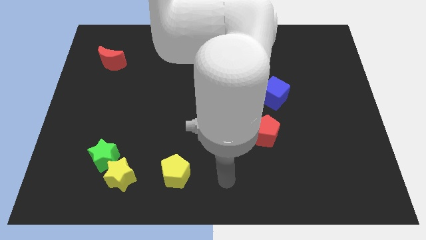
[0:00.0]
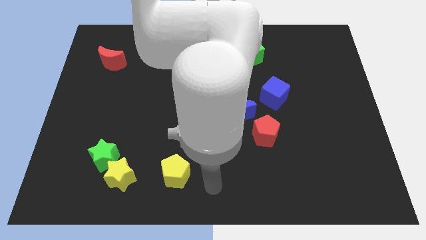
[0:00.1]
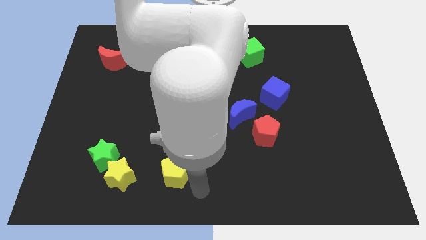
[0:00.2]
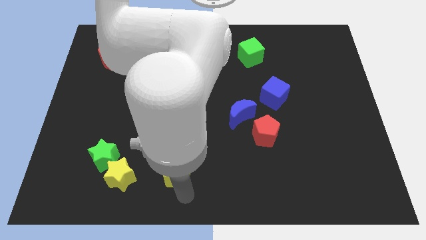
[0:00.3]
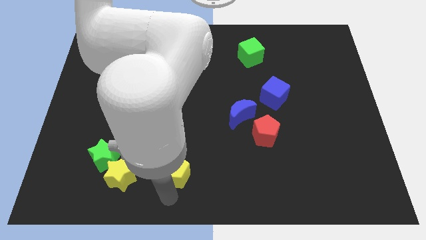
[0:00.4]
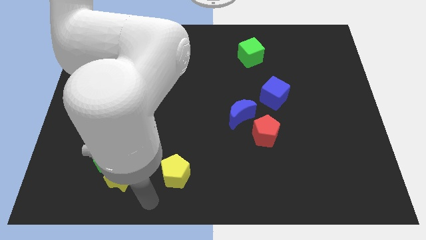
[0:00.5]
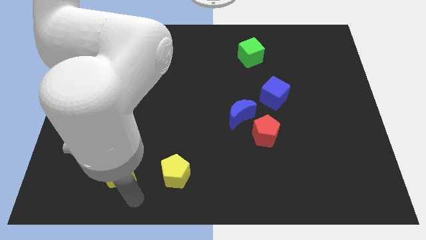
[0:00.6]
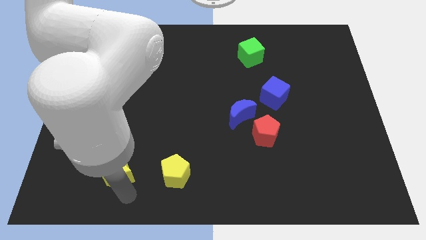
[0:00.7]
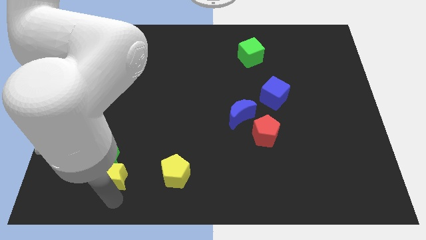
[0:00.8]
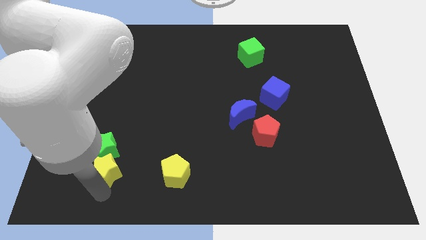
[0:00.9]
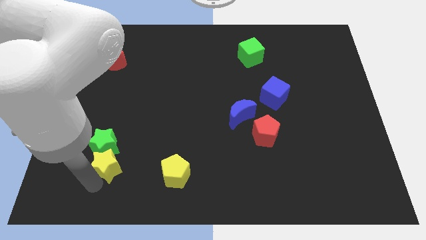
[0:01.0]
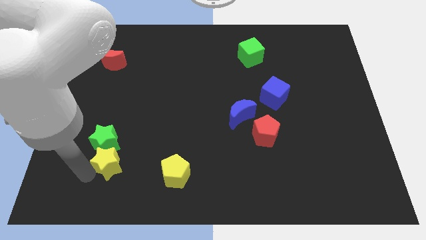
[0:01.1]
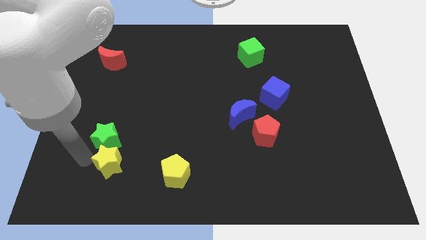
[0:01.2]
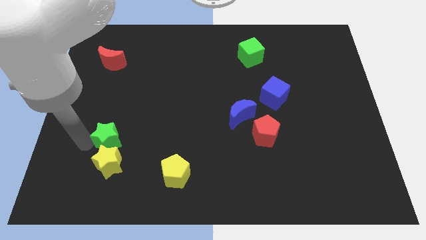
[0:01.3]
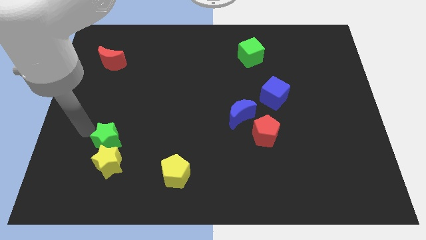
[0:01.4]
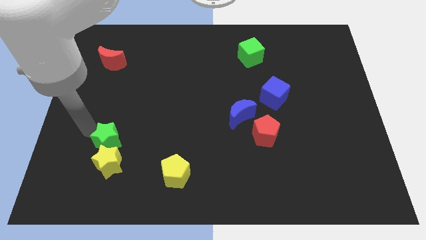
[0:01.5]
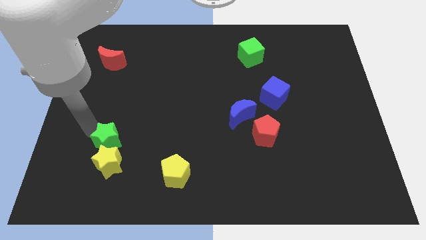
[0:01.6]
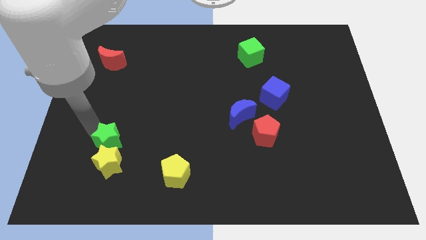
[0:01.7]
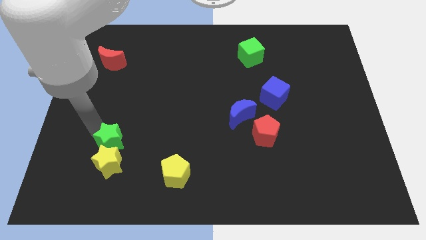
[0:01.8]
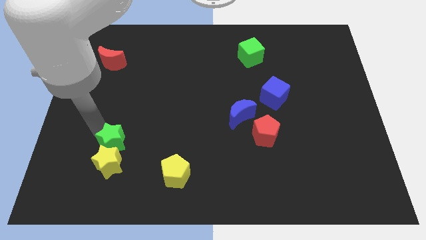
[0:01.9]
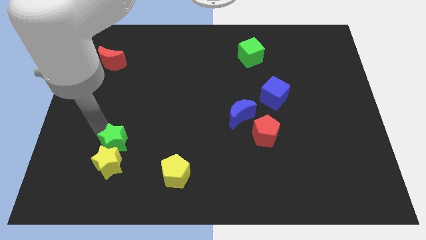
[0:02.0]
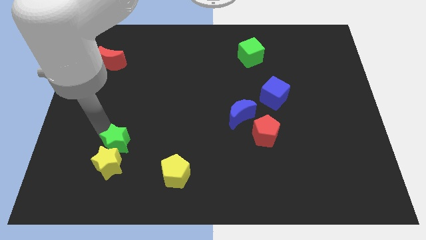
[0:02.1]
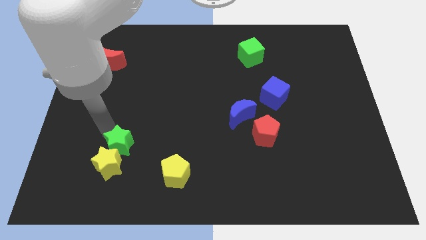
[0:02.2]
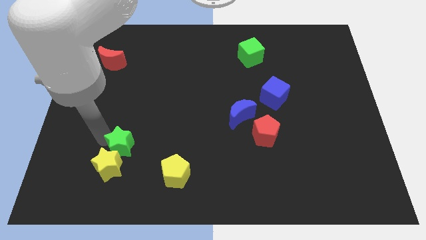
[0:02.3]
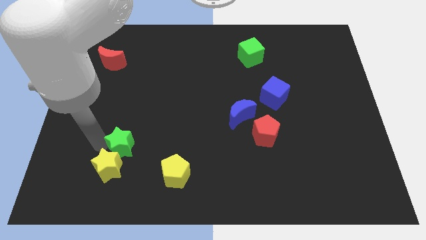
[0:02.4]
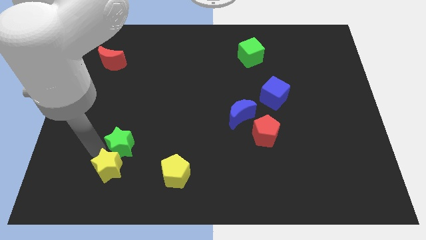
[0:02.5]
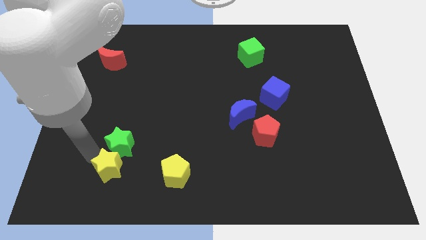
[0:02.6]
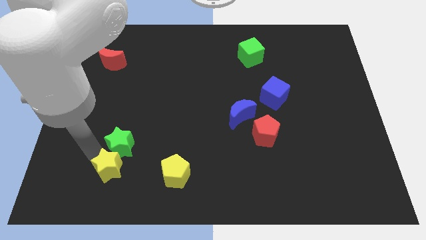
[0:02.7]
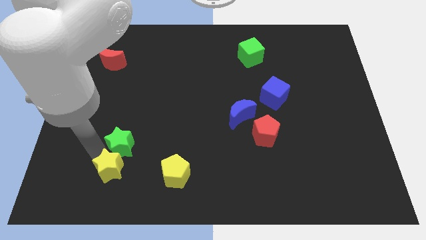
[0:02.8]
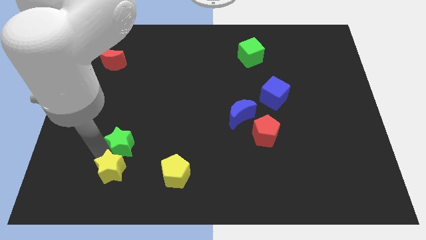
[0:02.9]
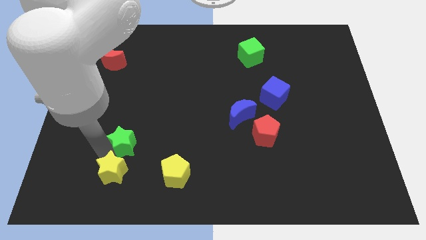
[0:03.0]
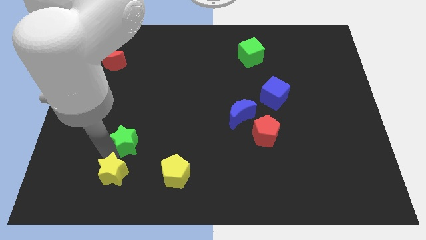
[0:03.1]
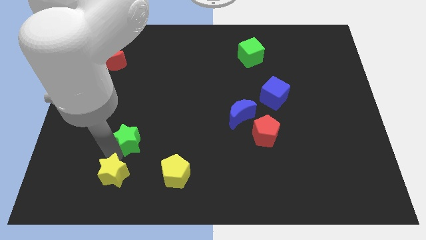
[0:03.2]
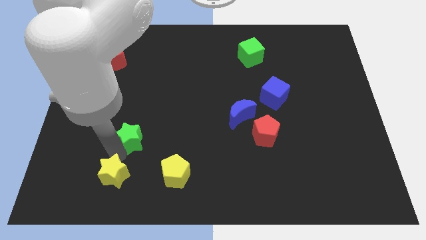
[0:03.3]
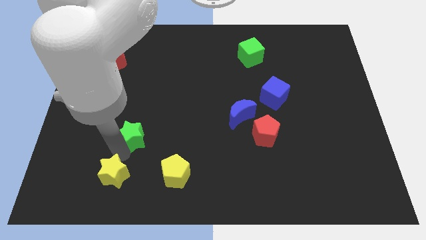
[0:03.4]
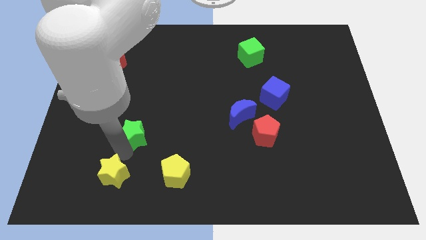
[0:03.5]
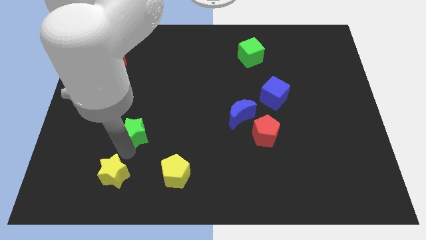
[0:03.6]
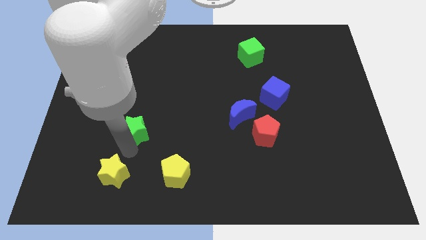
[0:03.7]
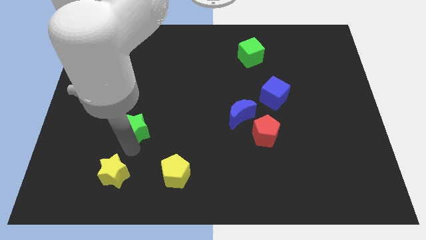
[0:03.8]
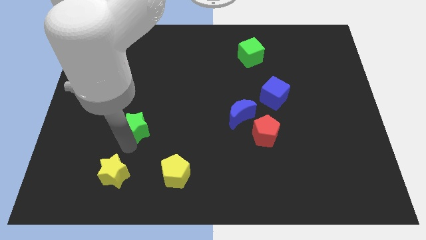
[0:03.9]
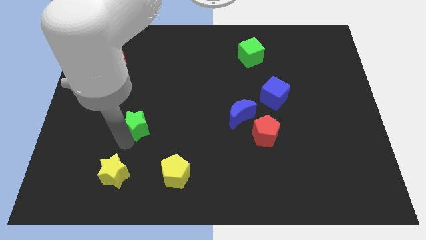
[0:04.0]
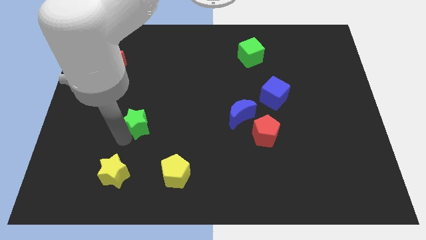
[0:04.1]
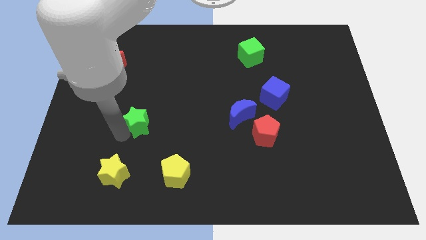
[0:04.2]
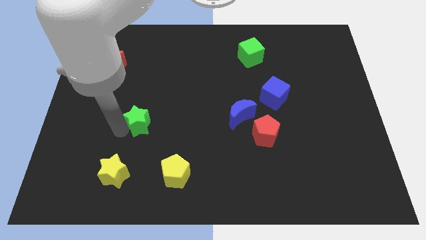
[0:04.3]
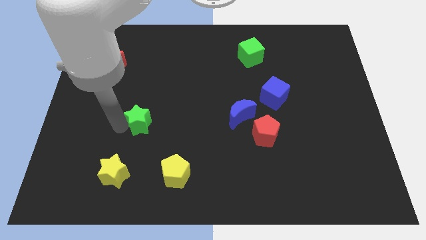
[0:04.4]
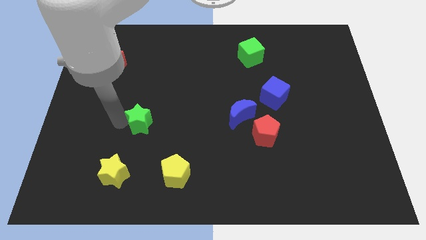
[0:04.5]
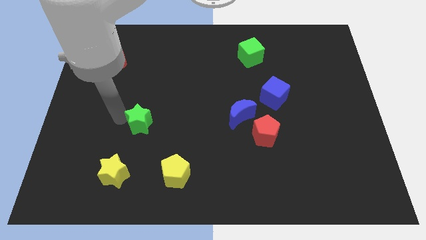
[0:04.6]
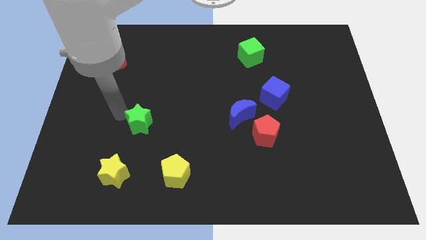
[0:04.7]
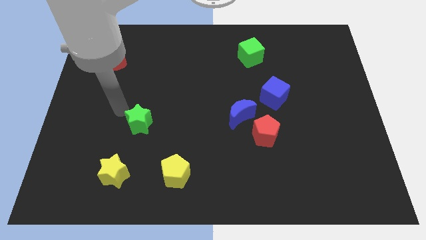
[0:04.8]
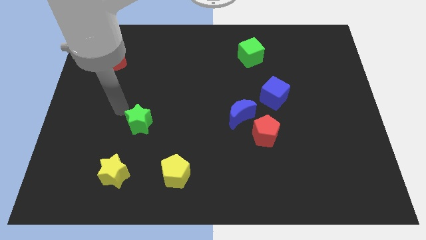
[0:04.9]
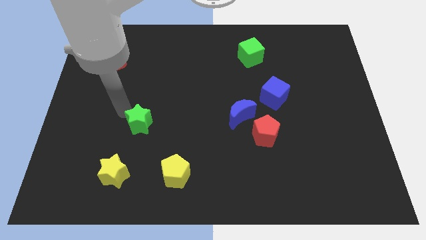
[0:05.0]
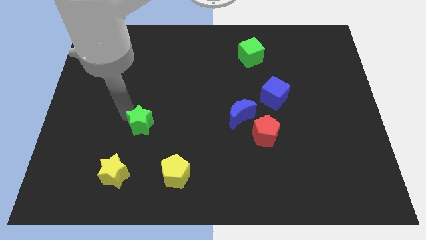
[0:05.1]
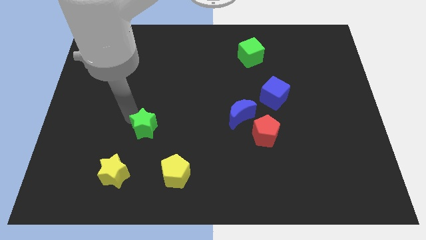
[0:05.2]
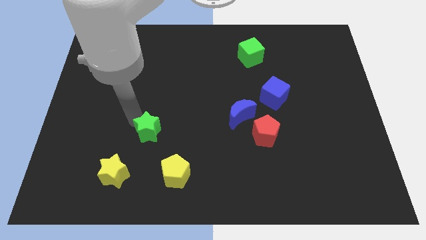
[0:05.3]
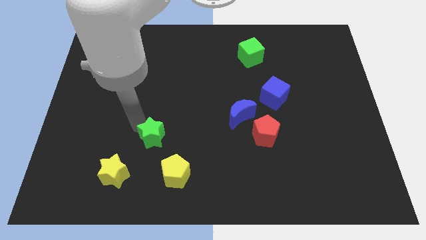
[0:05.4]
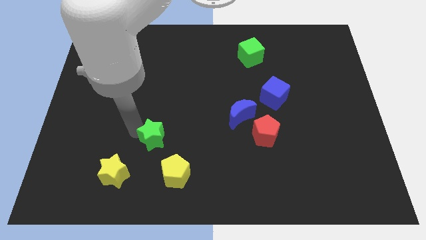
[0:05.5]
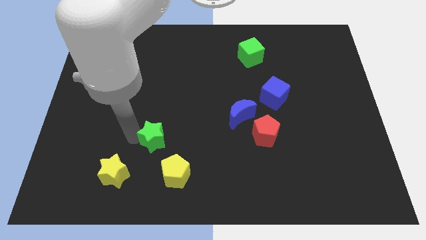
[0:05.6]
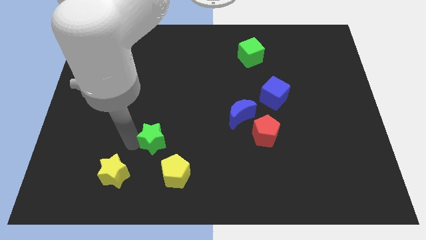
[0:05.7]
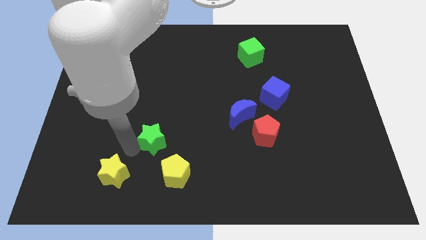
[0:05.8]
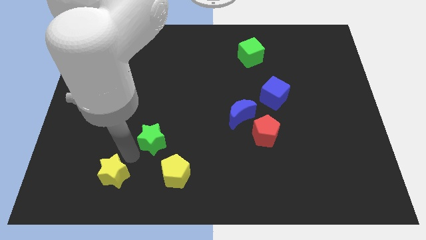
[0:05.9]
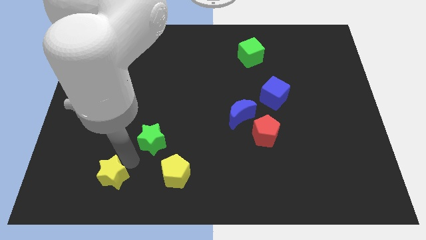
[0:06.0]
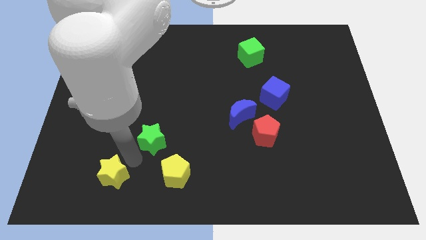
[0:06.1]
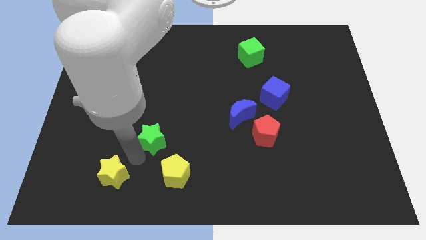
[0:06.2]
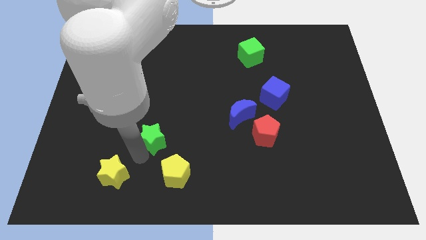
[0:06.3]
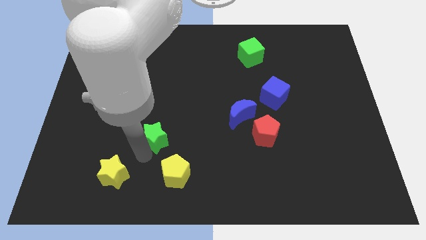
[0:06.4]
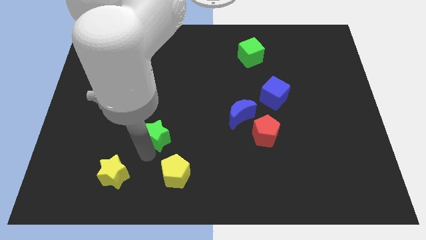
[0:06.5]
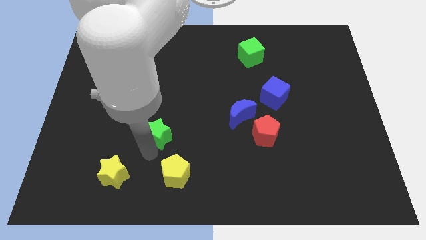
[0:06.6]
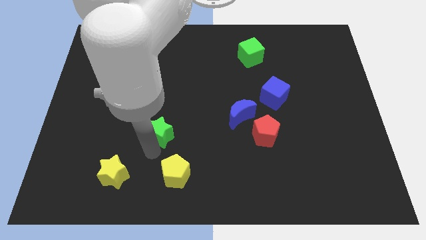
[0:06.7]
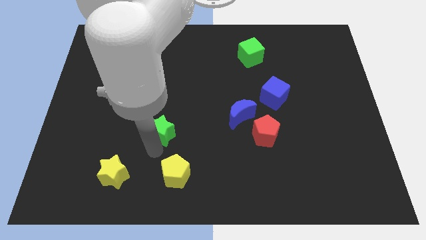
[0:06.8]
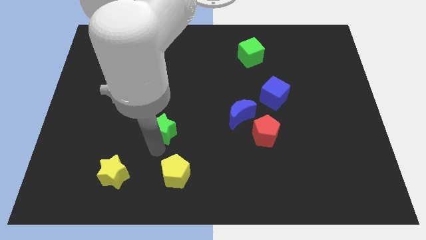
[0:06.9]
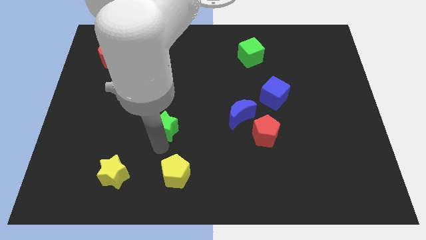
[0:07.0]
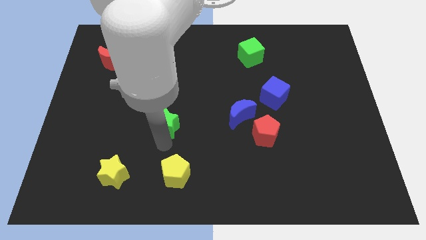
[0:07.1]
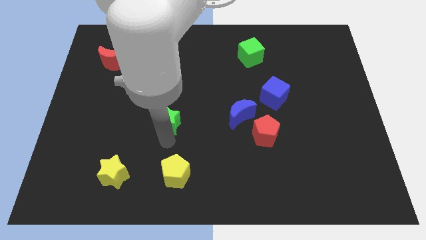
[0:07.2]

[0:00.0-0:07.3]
move the green star to the center
